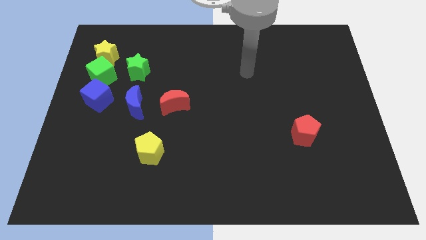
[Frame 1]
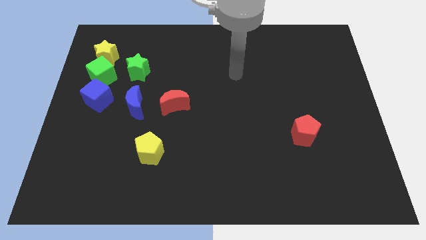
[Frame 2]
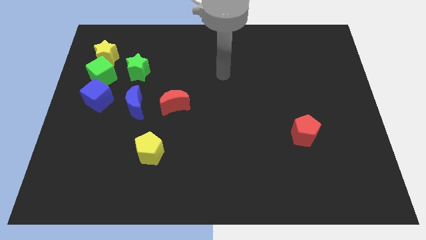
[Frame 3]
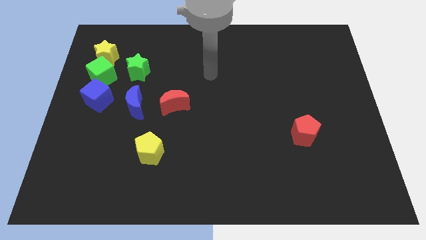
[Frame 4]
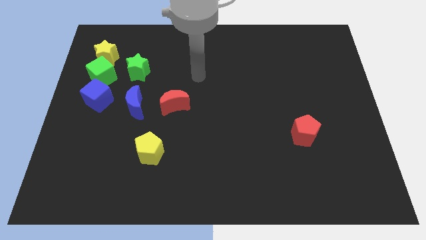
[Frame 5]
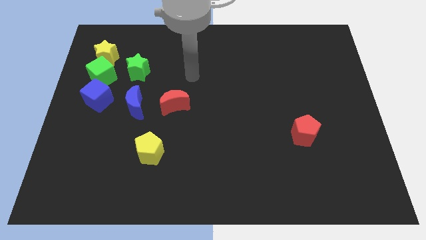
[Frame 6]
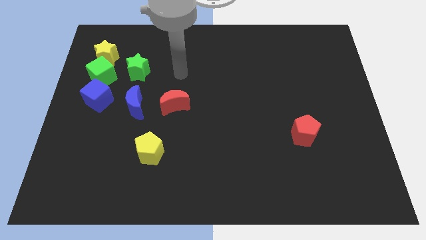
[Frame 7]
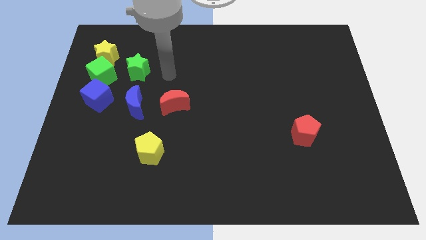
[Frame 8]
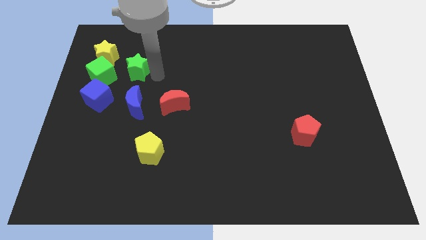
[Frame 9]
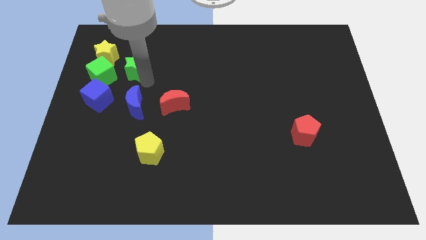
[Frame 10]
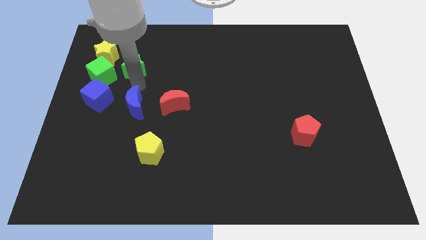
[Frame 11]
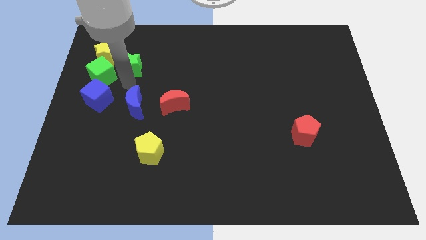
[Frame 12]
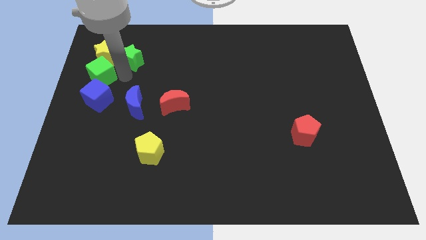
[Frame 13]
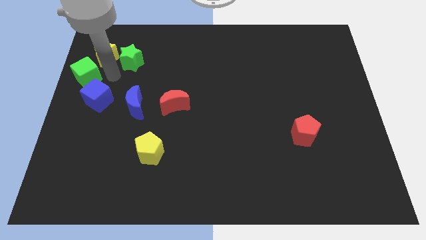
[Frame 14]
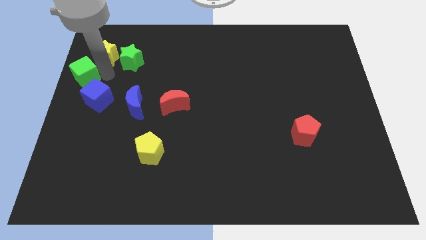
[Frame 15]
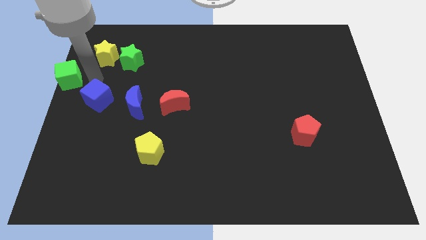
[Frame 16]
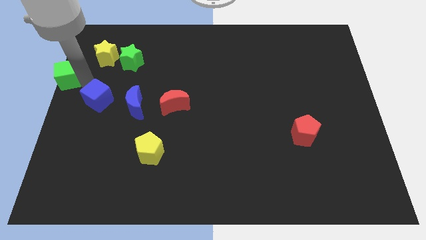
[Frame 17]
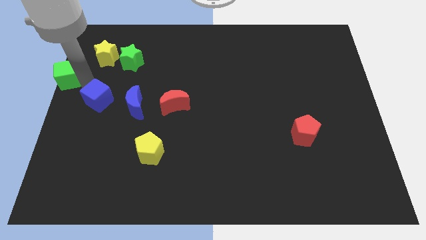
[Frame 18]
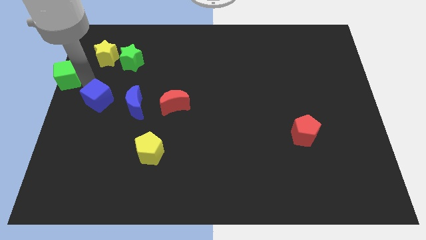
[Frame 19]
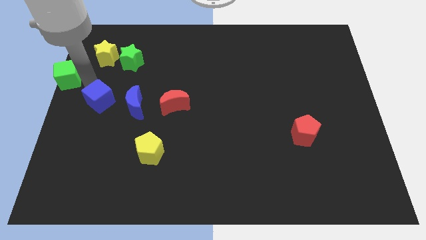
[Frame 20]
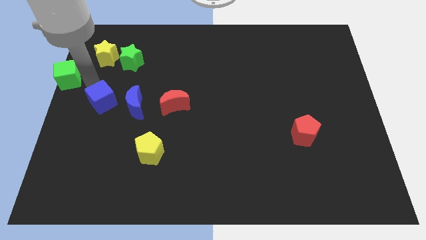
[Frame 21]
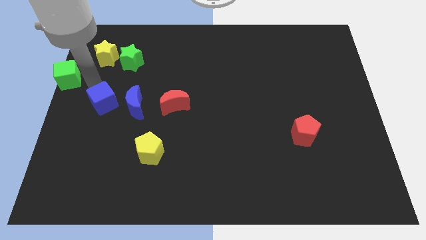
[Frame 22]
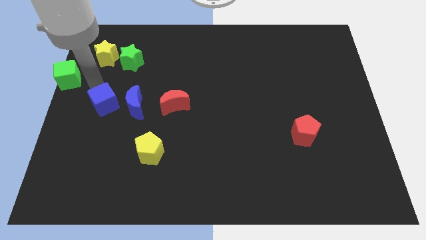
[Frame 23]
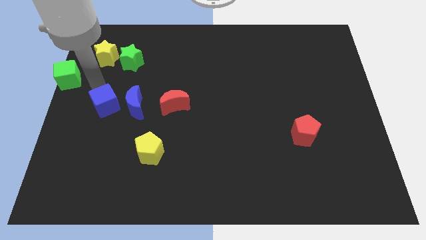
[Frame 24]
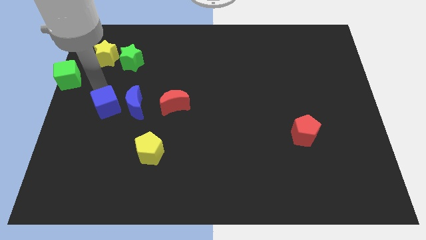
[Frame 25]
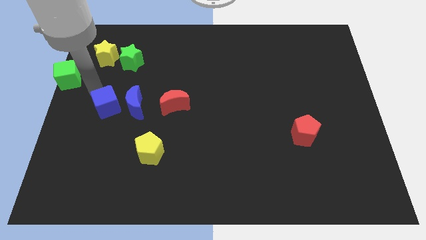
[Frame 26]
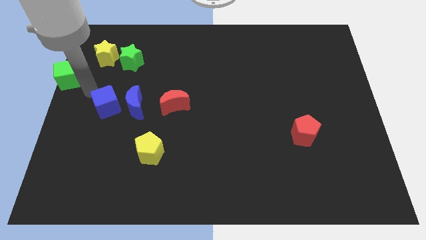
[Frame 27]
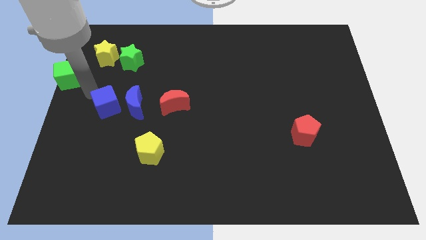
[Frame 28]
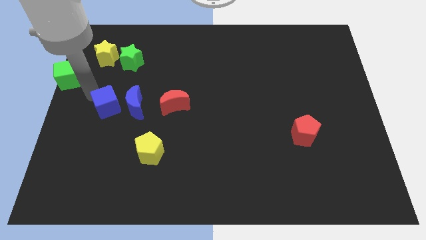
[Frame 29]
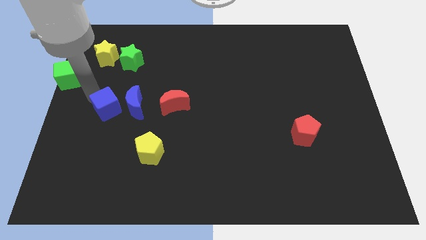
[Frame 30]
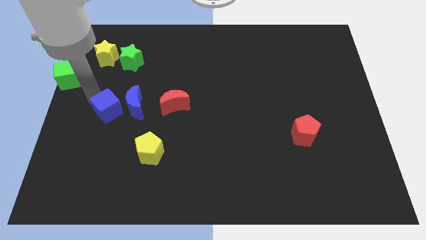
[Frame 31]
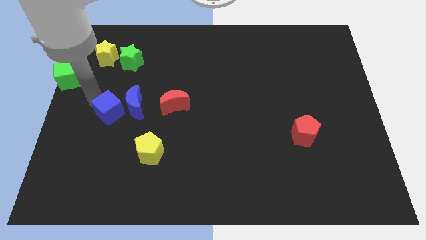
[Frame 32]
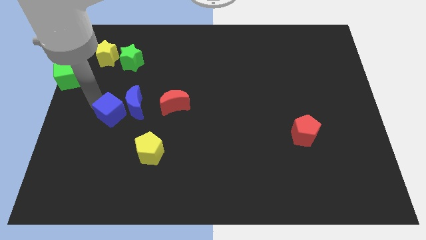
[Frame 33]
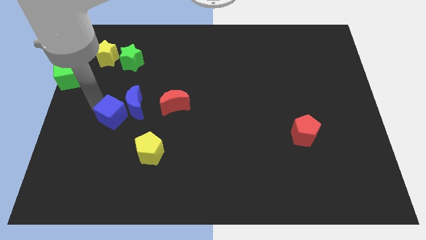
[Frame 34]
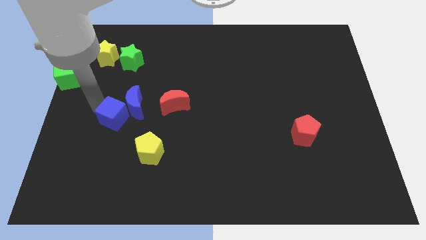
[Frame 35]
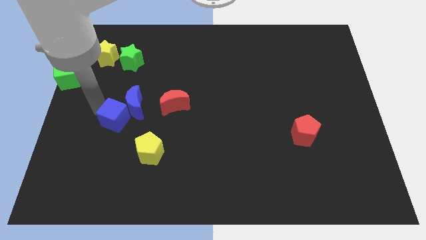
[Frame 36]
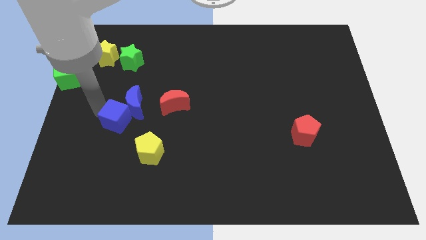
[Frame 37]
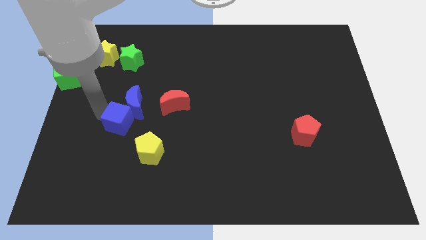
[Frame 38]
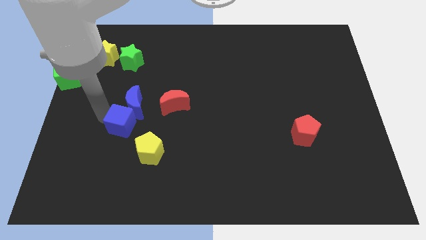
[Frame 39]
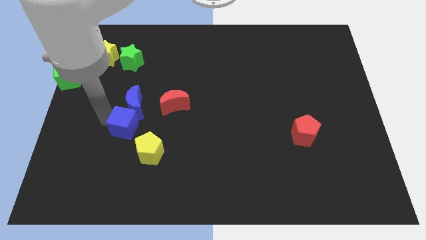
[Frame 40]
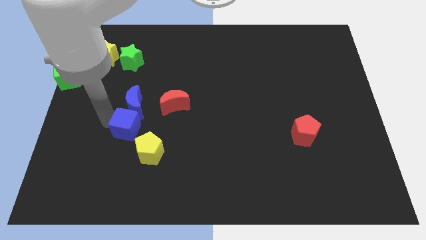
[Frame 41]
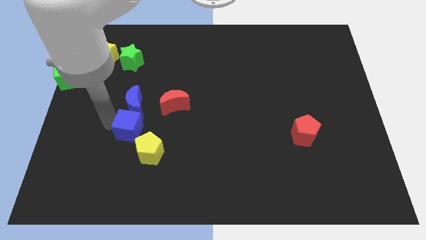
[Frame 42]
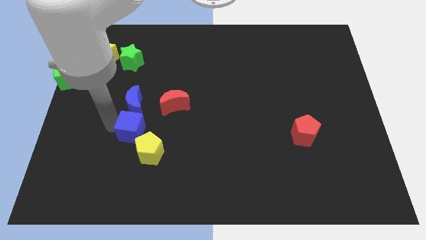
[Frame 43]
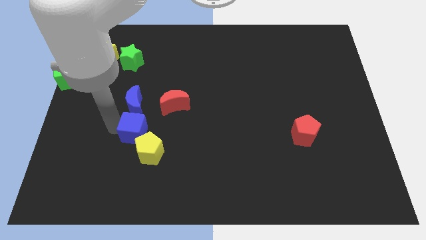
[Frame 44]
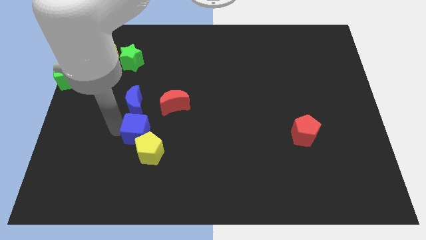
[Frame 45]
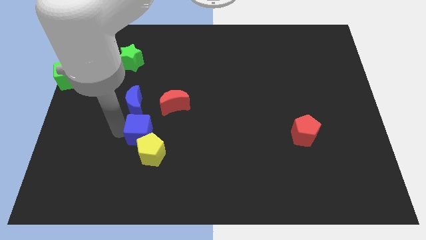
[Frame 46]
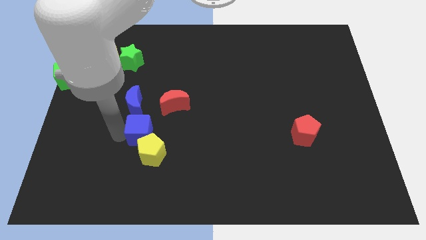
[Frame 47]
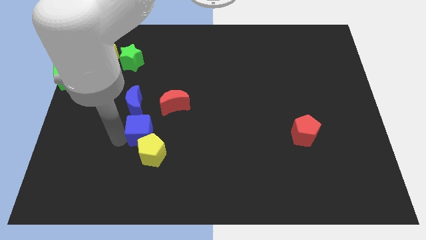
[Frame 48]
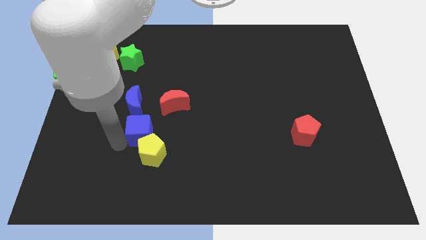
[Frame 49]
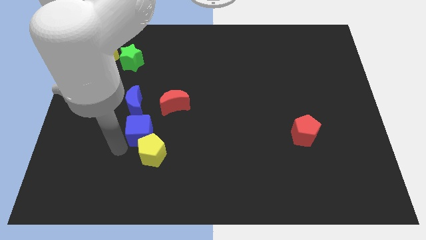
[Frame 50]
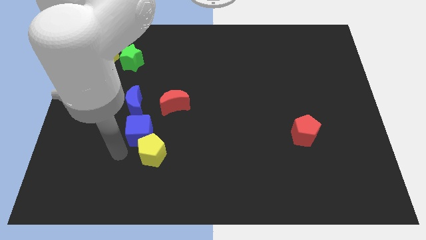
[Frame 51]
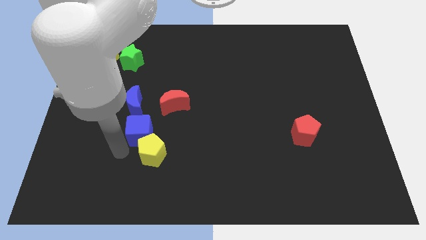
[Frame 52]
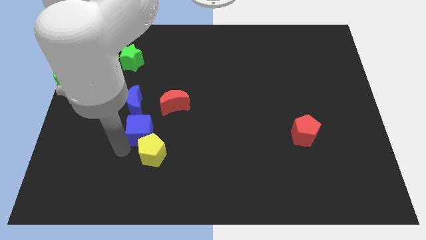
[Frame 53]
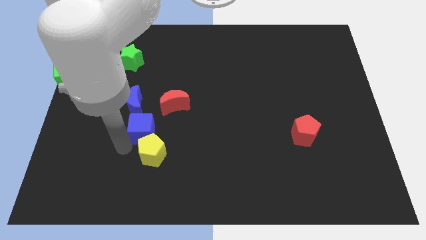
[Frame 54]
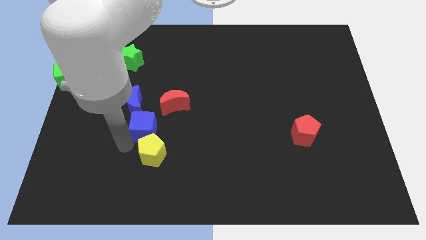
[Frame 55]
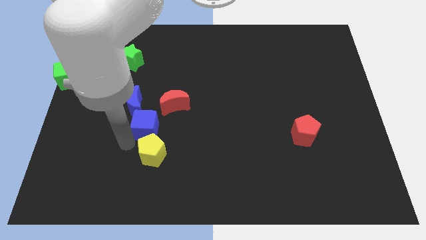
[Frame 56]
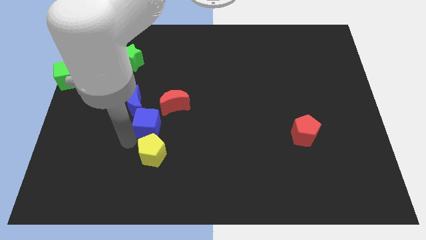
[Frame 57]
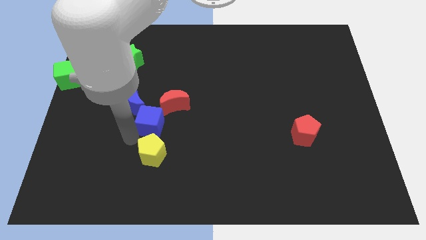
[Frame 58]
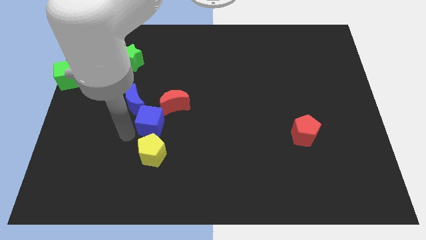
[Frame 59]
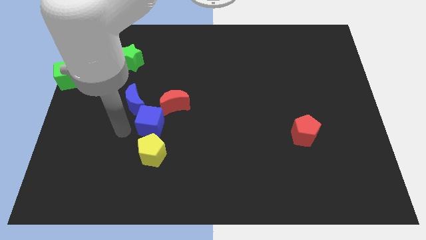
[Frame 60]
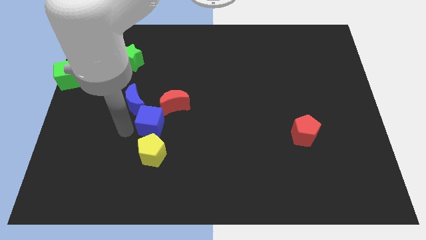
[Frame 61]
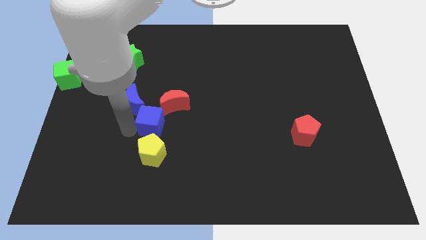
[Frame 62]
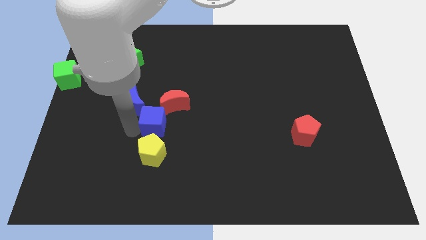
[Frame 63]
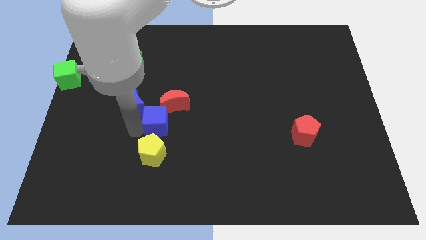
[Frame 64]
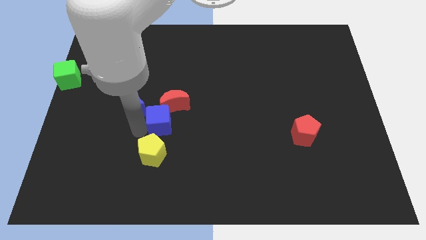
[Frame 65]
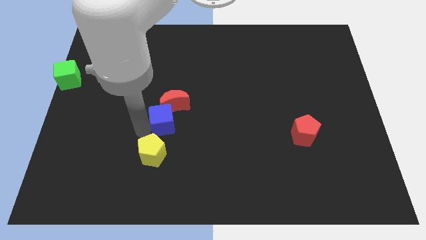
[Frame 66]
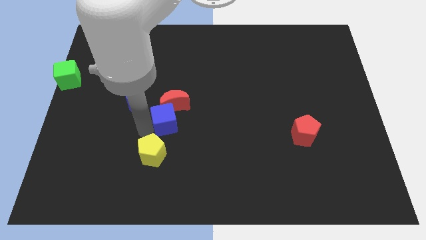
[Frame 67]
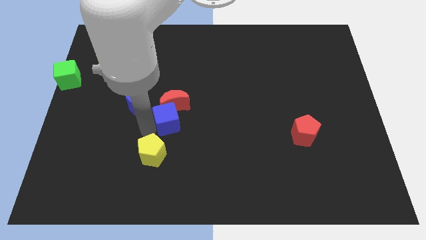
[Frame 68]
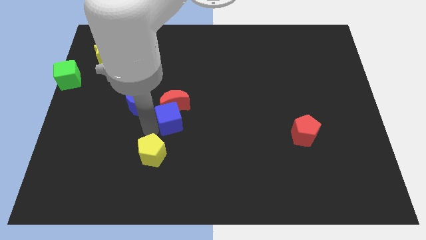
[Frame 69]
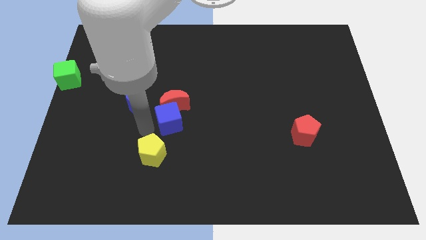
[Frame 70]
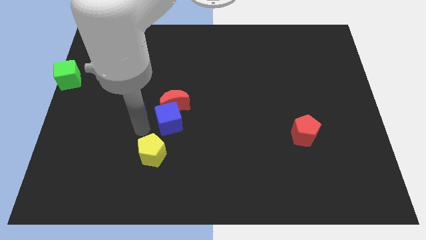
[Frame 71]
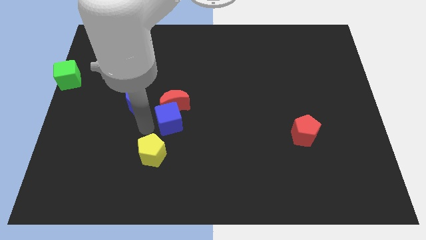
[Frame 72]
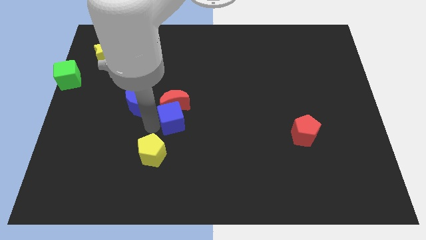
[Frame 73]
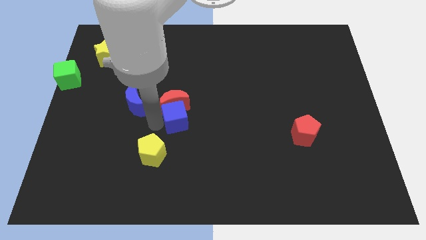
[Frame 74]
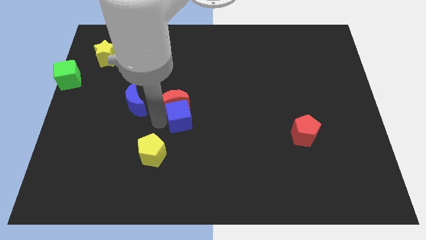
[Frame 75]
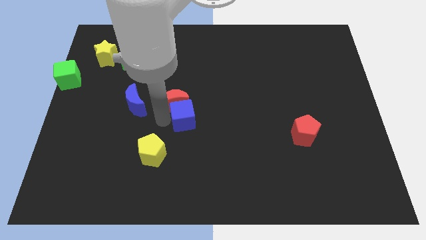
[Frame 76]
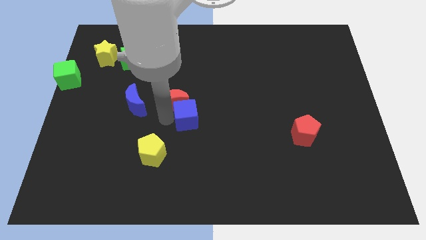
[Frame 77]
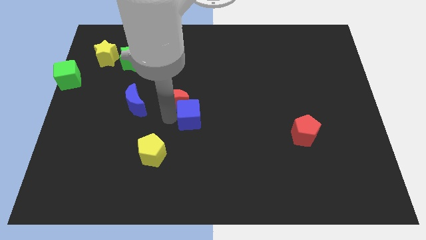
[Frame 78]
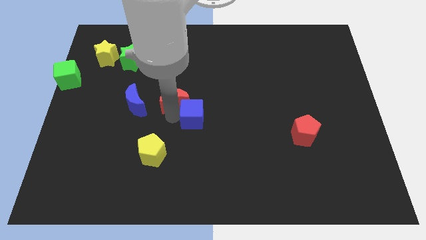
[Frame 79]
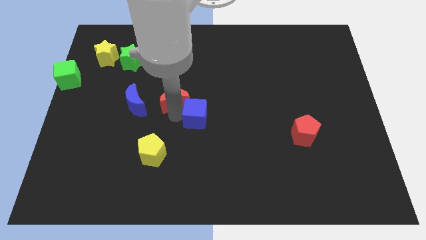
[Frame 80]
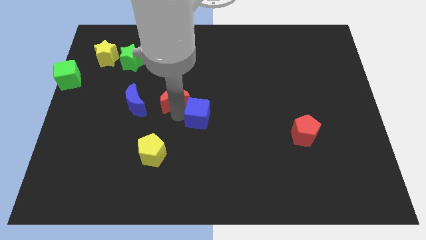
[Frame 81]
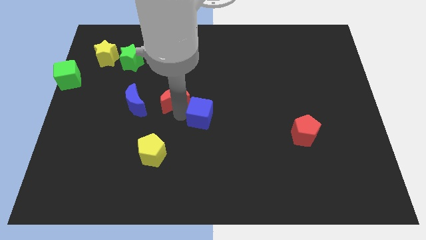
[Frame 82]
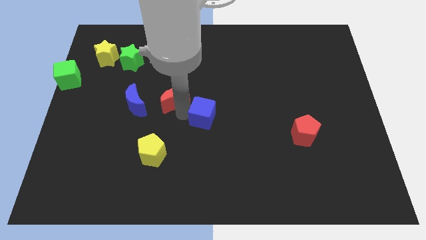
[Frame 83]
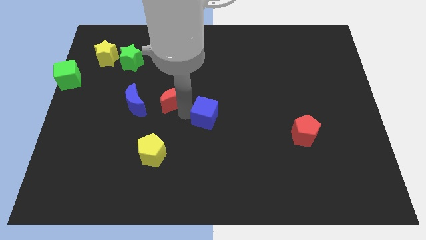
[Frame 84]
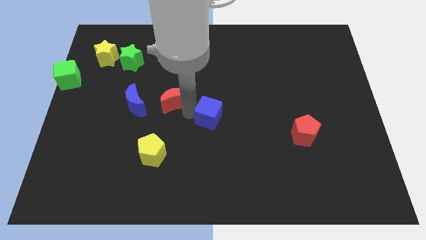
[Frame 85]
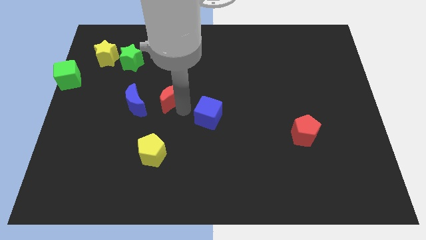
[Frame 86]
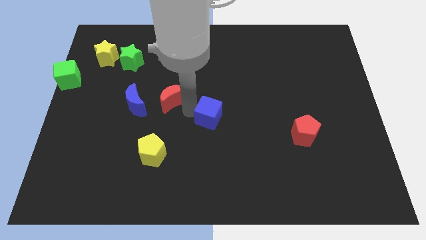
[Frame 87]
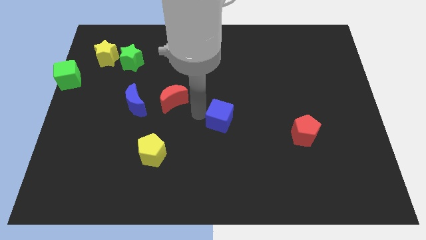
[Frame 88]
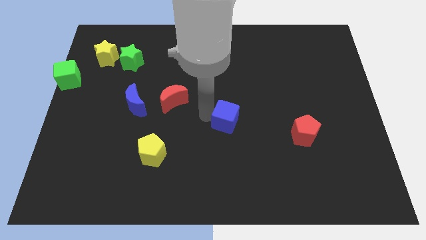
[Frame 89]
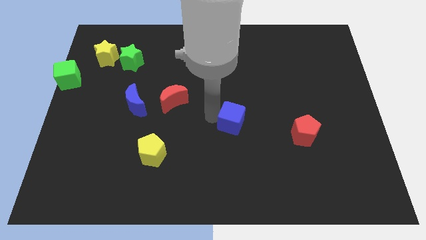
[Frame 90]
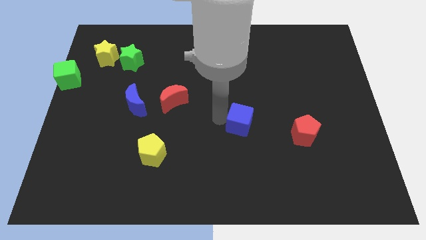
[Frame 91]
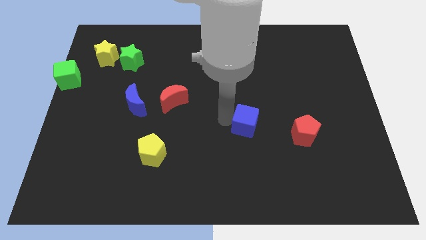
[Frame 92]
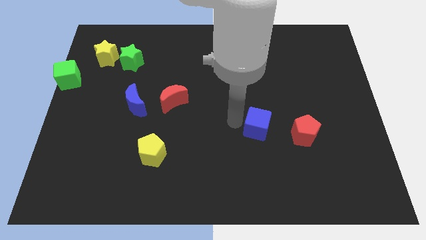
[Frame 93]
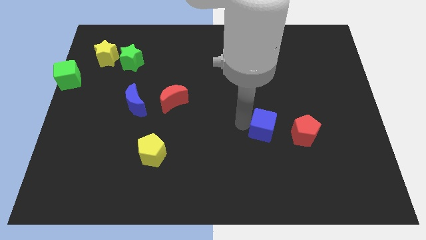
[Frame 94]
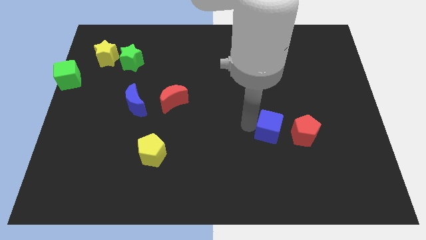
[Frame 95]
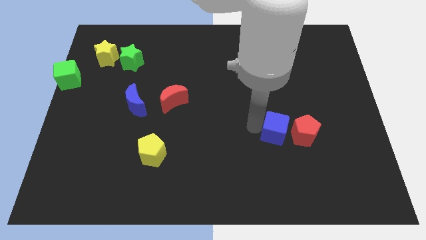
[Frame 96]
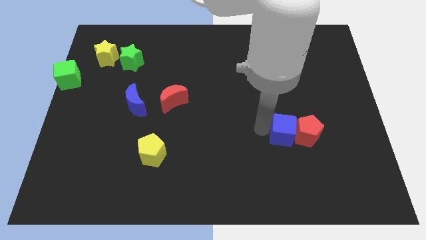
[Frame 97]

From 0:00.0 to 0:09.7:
slide the blue cube to the red pentagon
